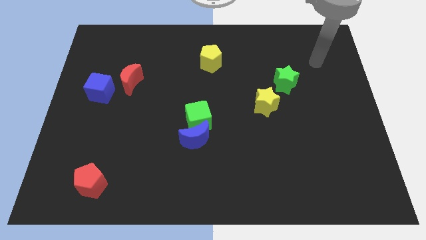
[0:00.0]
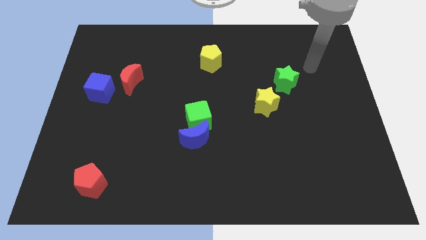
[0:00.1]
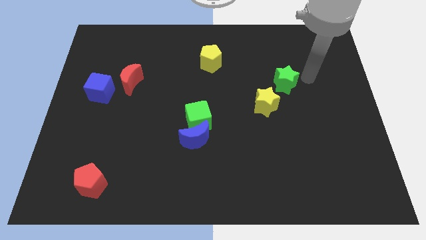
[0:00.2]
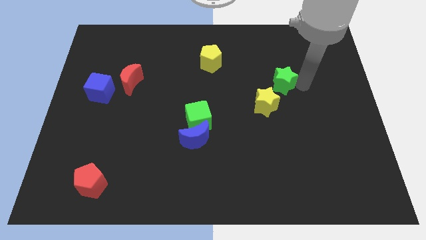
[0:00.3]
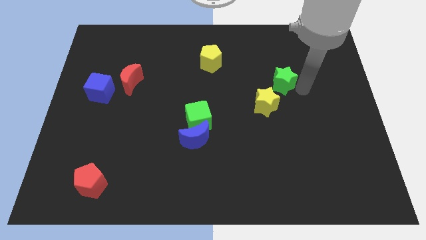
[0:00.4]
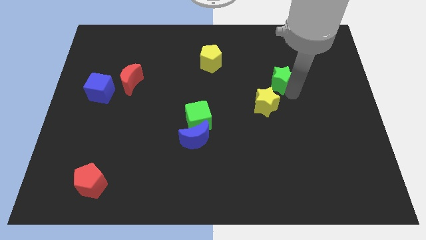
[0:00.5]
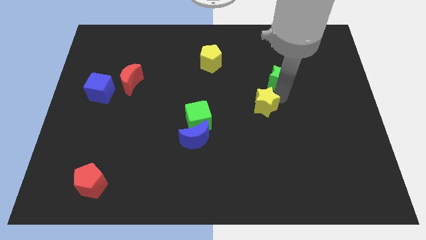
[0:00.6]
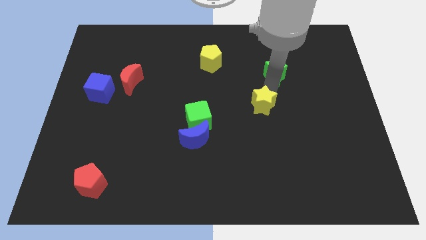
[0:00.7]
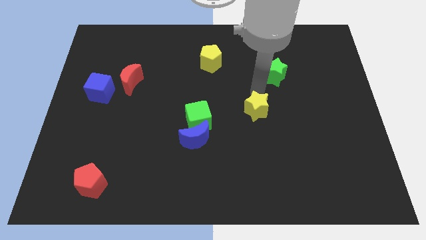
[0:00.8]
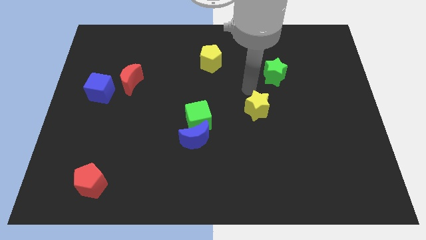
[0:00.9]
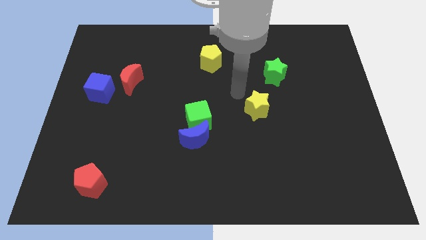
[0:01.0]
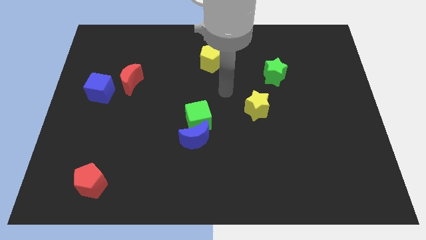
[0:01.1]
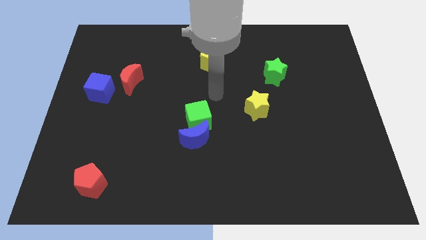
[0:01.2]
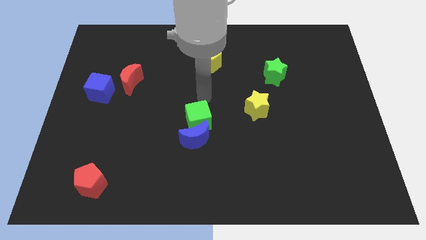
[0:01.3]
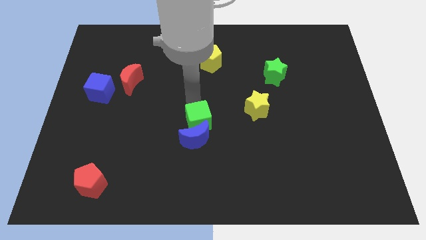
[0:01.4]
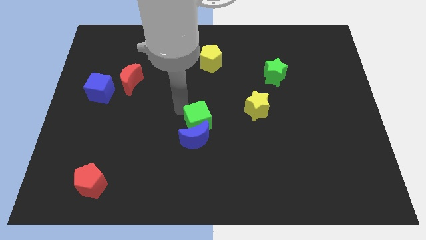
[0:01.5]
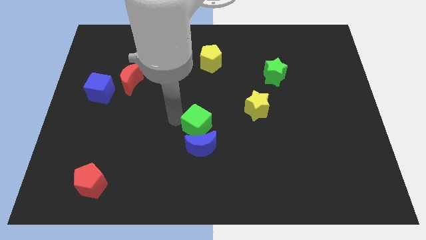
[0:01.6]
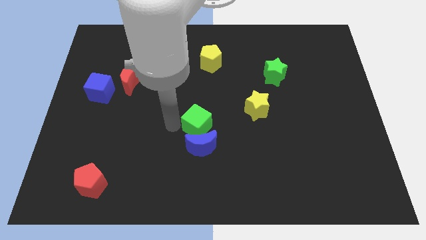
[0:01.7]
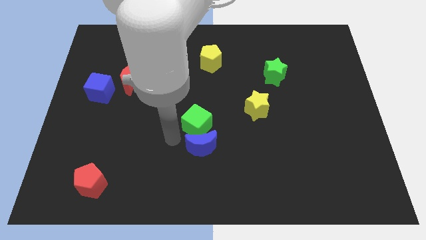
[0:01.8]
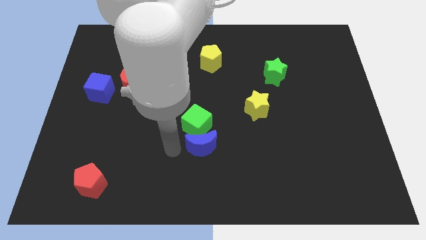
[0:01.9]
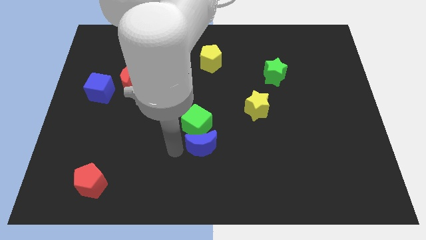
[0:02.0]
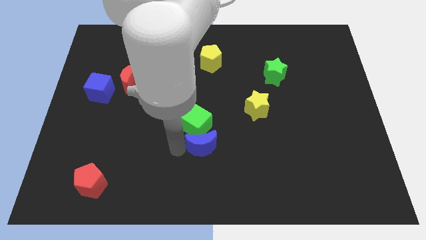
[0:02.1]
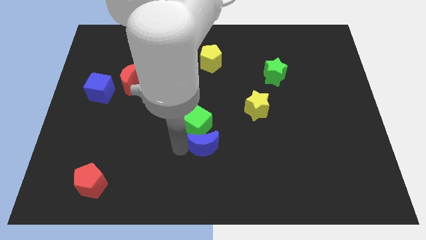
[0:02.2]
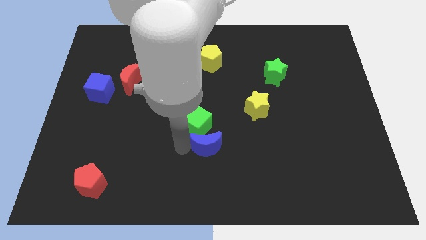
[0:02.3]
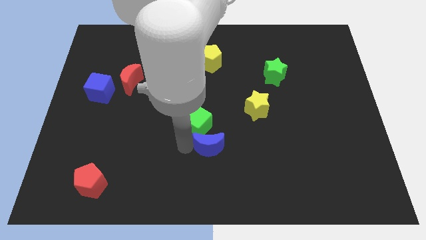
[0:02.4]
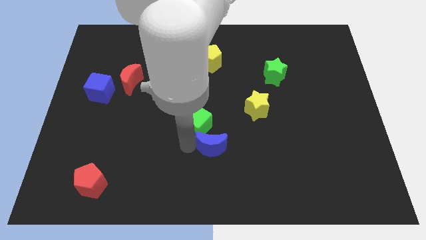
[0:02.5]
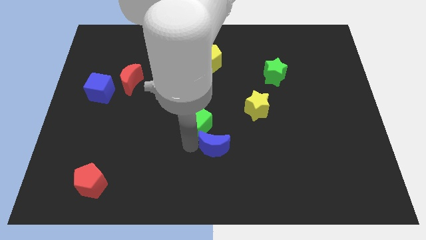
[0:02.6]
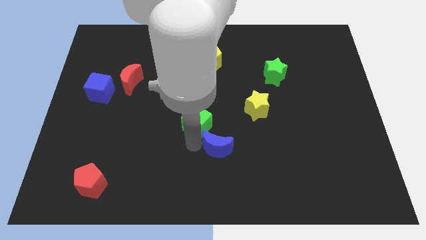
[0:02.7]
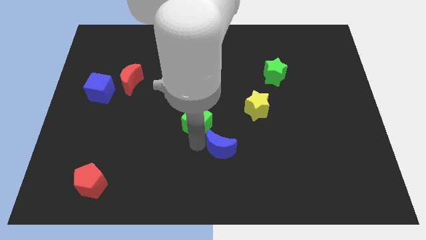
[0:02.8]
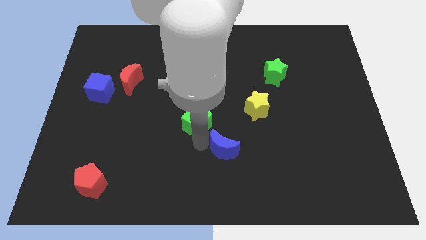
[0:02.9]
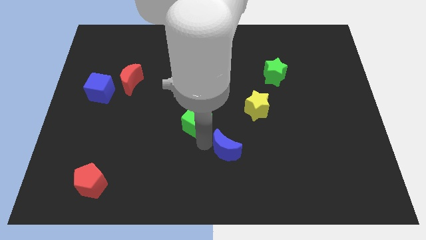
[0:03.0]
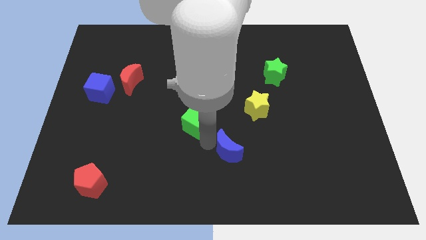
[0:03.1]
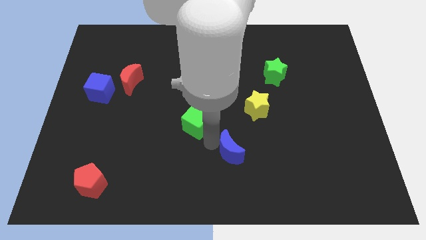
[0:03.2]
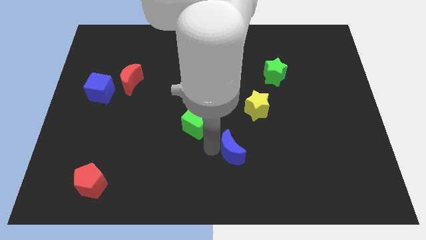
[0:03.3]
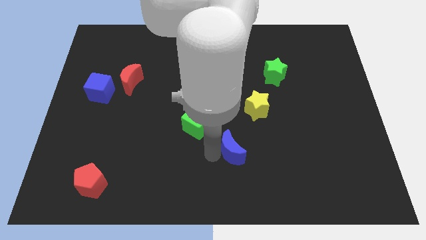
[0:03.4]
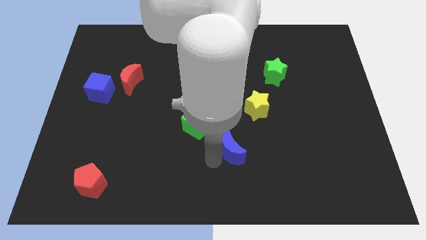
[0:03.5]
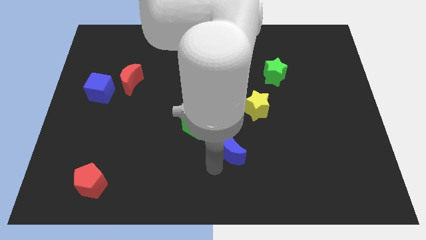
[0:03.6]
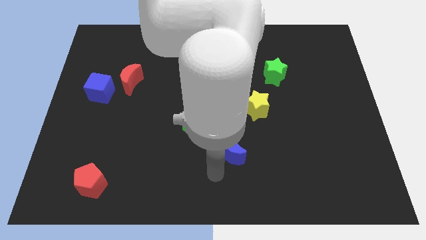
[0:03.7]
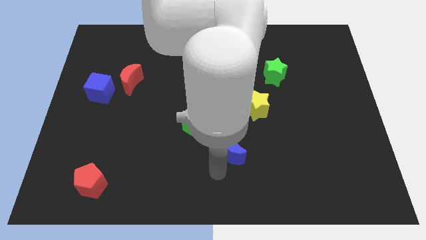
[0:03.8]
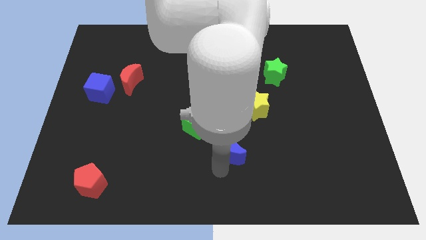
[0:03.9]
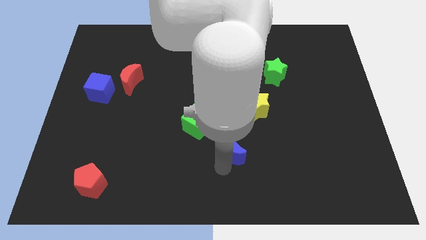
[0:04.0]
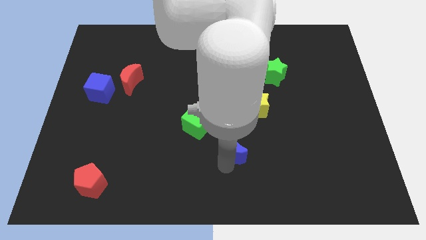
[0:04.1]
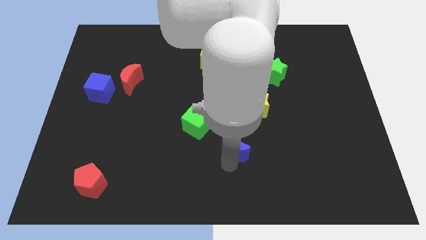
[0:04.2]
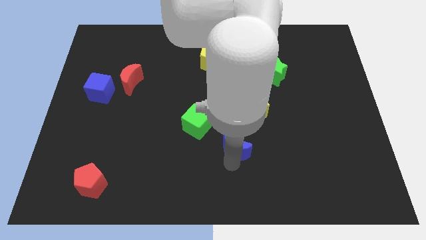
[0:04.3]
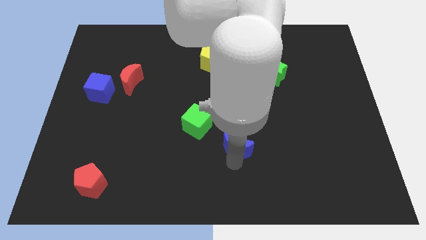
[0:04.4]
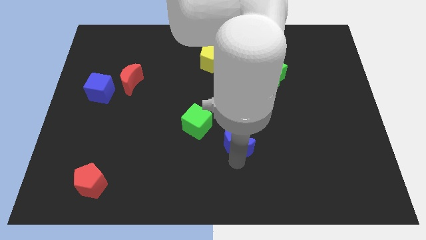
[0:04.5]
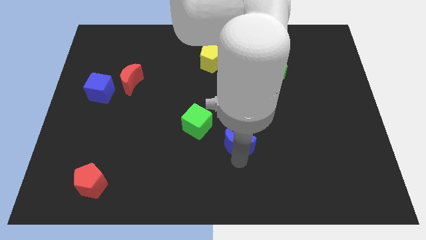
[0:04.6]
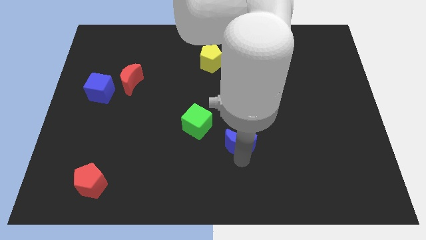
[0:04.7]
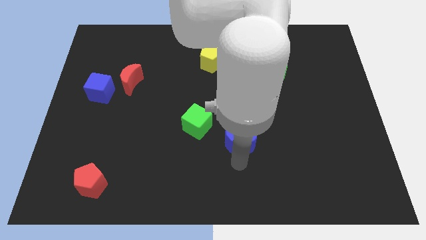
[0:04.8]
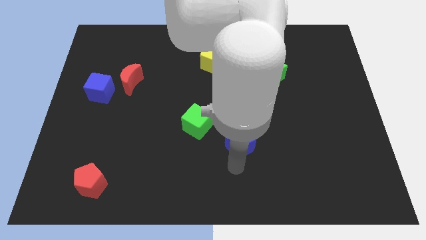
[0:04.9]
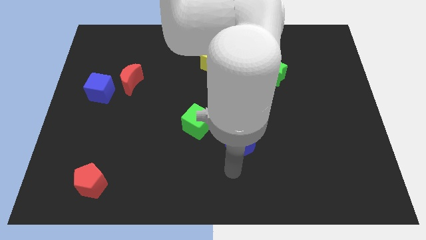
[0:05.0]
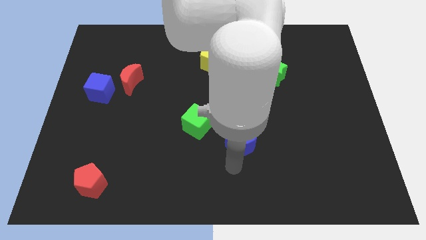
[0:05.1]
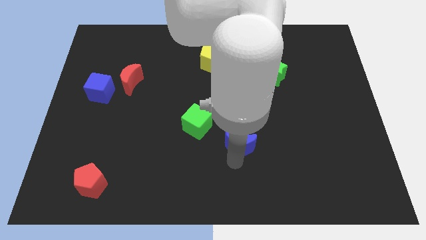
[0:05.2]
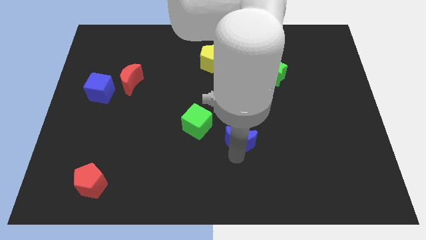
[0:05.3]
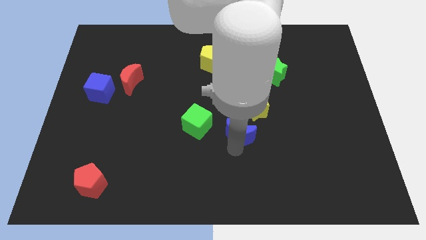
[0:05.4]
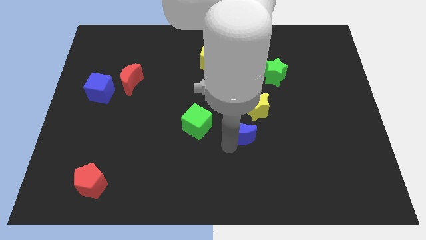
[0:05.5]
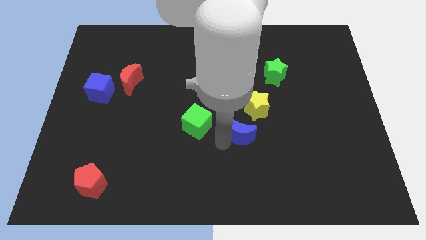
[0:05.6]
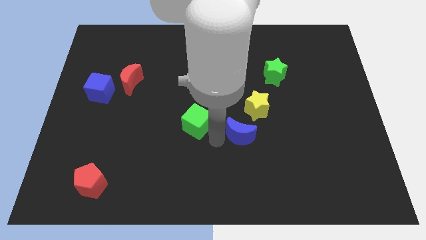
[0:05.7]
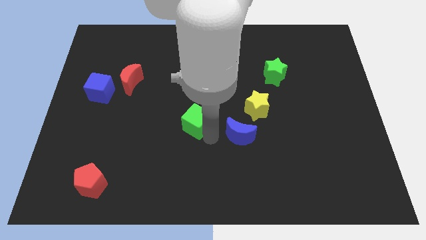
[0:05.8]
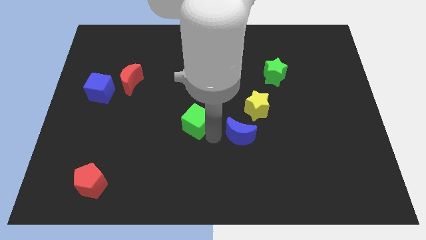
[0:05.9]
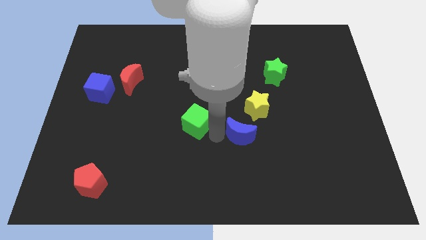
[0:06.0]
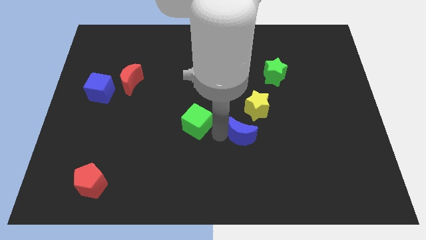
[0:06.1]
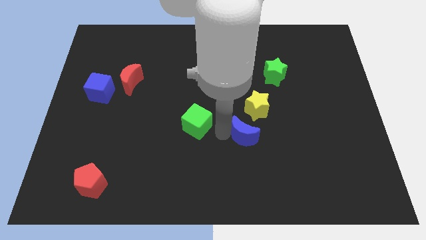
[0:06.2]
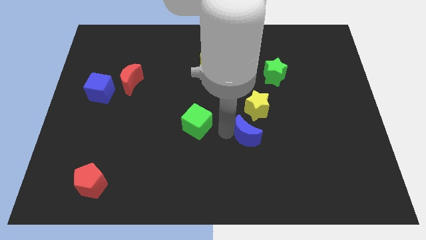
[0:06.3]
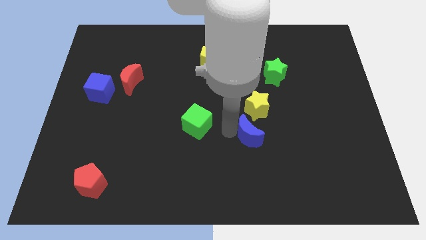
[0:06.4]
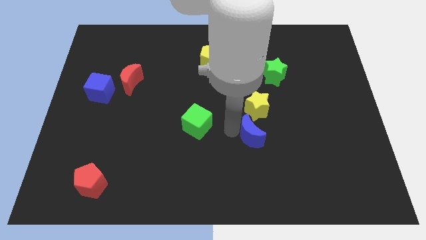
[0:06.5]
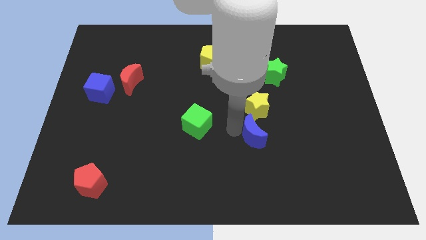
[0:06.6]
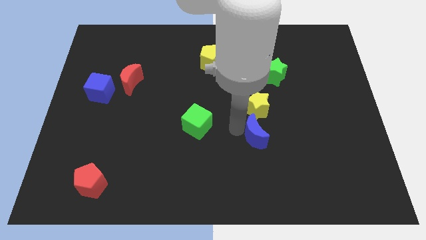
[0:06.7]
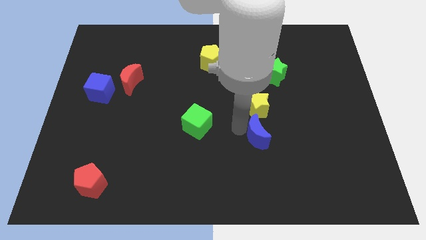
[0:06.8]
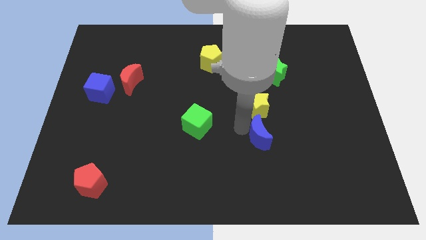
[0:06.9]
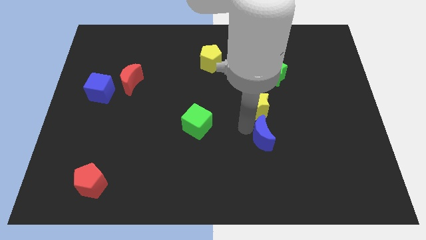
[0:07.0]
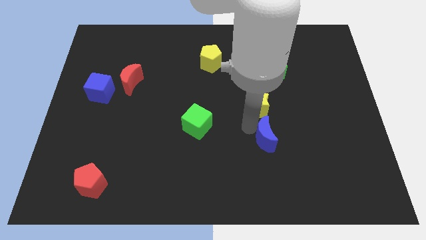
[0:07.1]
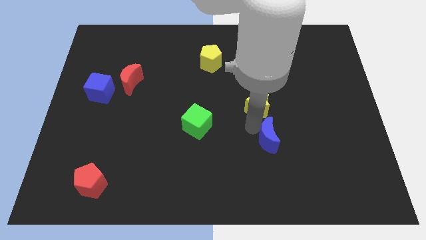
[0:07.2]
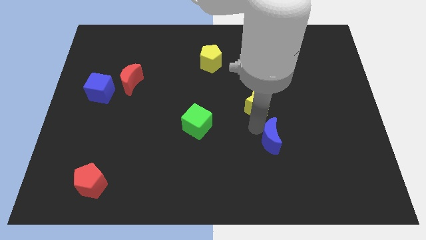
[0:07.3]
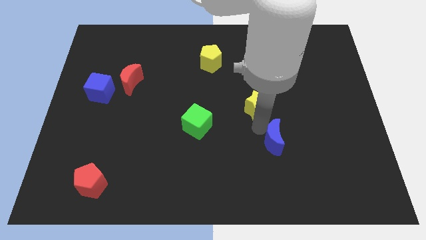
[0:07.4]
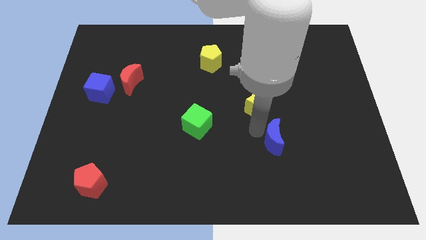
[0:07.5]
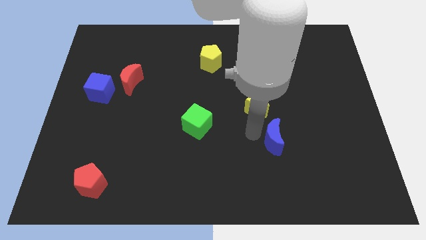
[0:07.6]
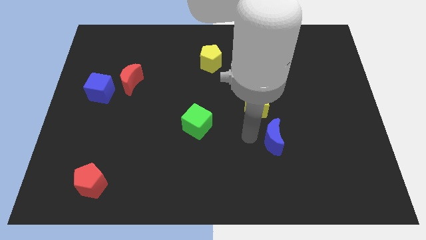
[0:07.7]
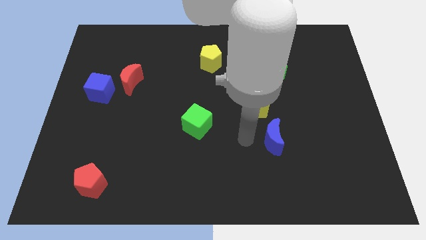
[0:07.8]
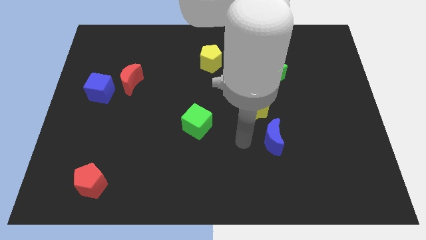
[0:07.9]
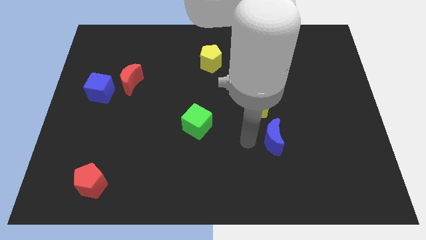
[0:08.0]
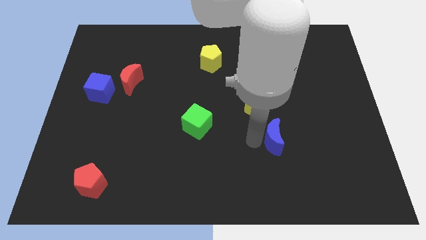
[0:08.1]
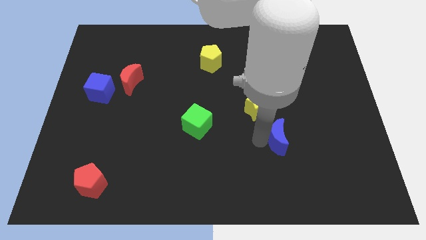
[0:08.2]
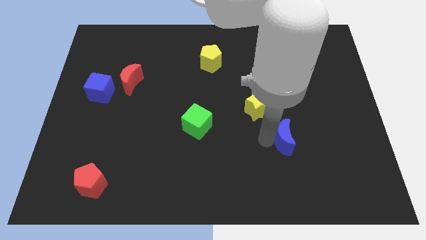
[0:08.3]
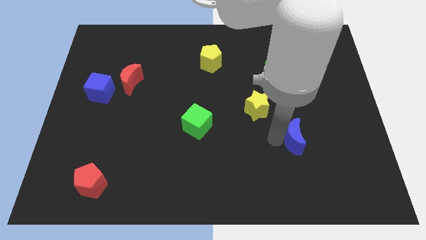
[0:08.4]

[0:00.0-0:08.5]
slide the blue moon right
